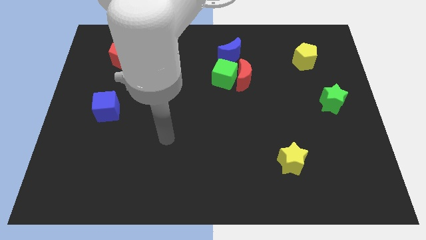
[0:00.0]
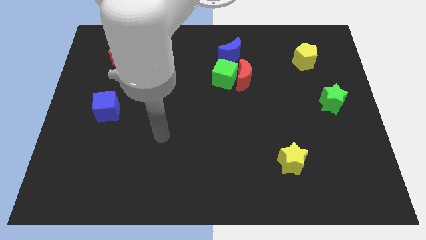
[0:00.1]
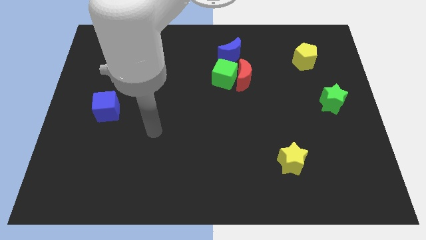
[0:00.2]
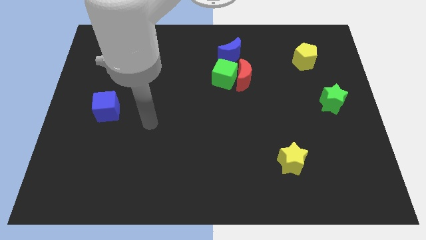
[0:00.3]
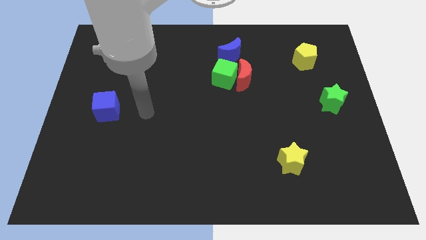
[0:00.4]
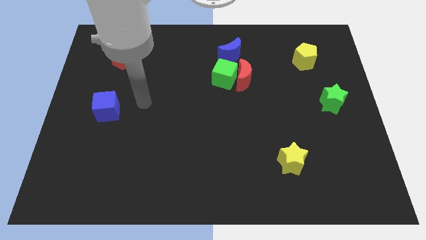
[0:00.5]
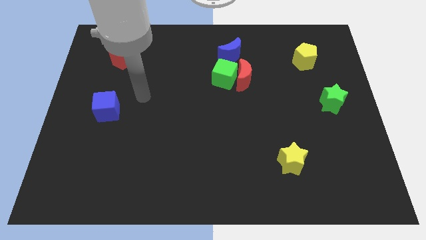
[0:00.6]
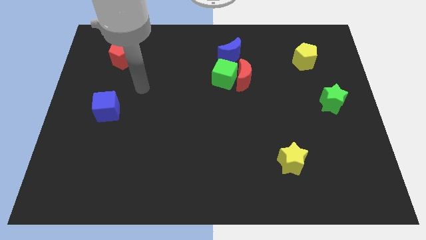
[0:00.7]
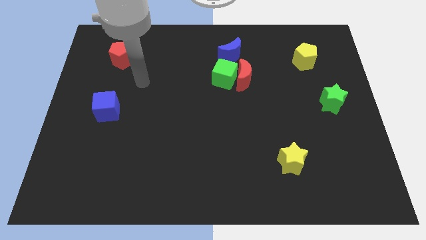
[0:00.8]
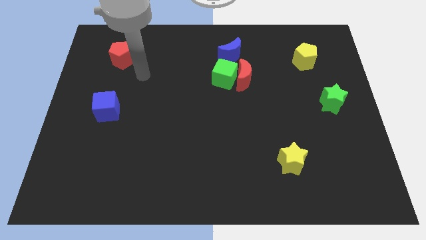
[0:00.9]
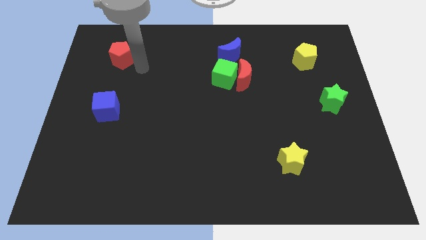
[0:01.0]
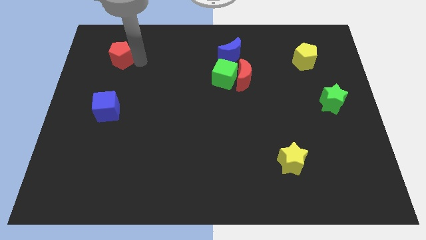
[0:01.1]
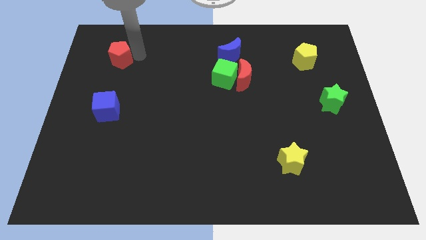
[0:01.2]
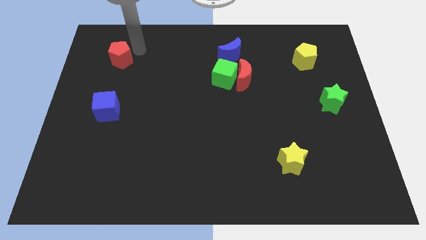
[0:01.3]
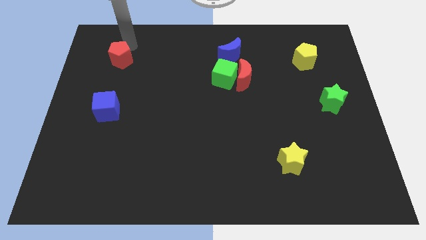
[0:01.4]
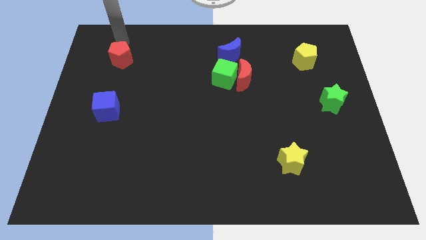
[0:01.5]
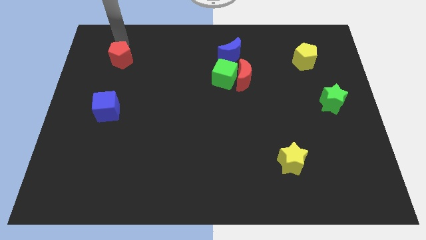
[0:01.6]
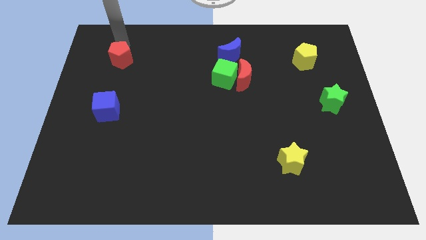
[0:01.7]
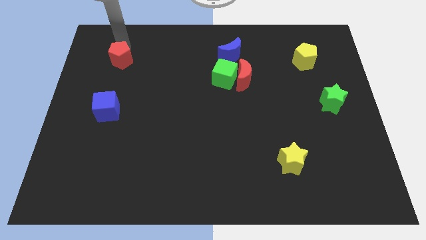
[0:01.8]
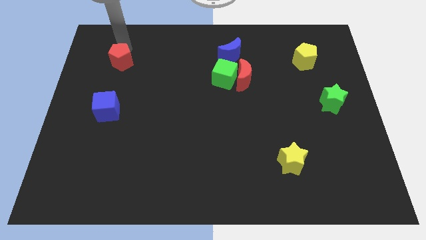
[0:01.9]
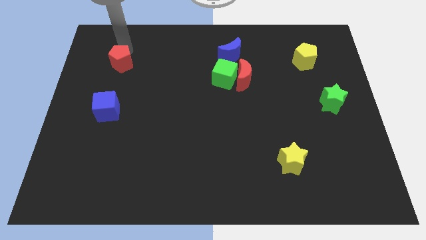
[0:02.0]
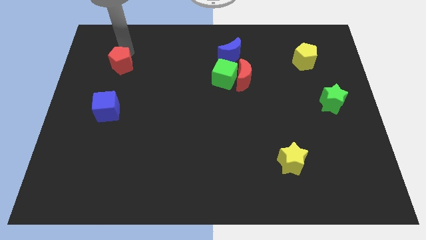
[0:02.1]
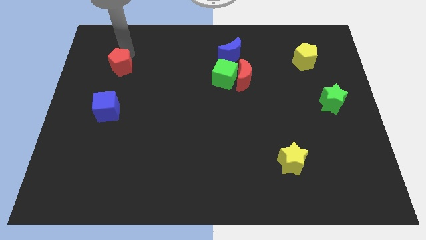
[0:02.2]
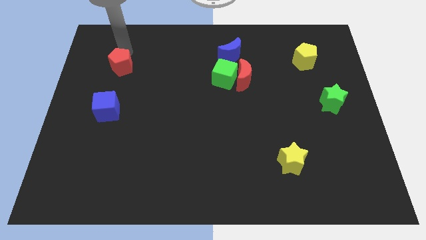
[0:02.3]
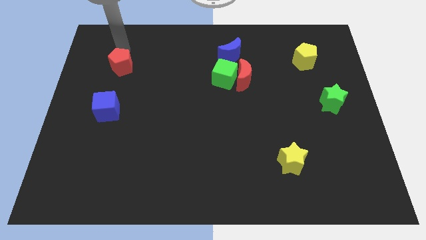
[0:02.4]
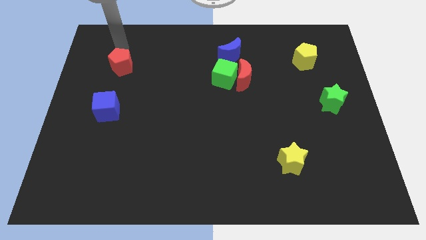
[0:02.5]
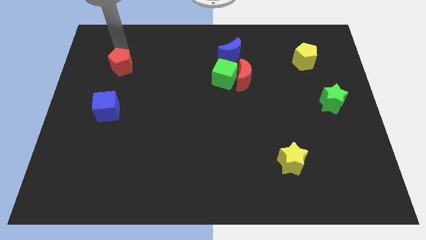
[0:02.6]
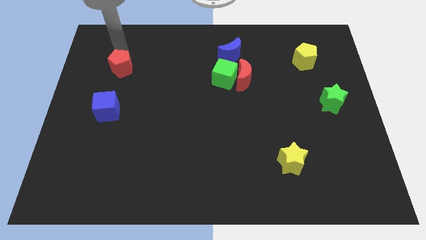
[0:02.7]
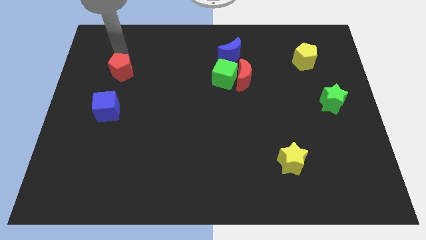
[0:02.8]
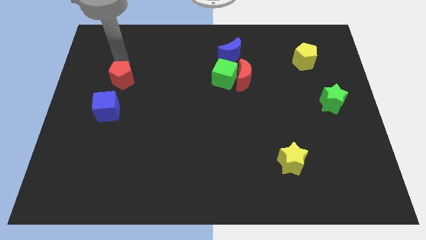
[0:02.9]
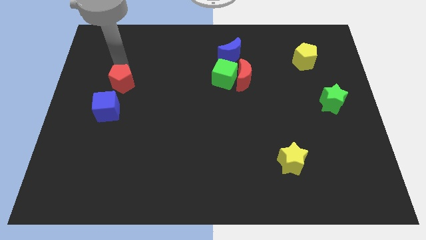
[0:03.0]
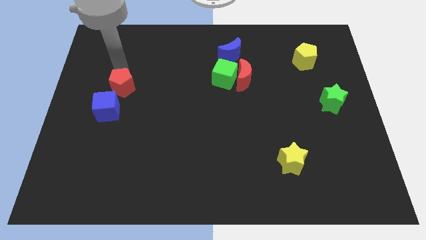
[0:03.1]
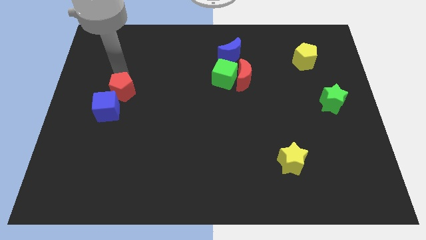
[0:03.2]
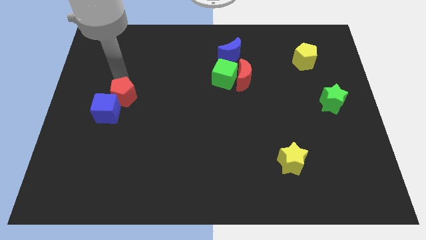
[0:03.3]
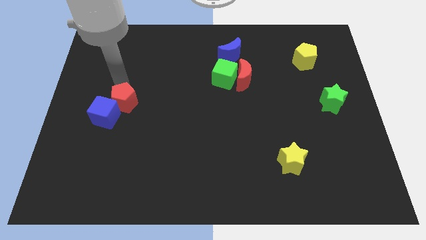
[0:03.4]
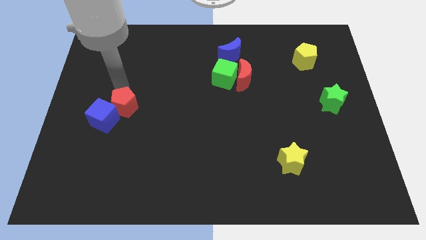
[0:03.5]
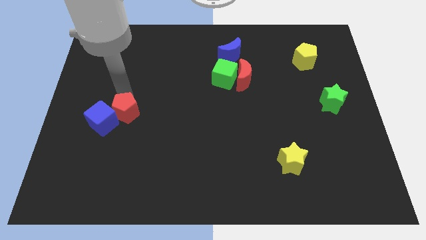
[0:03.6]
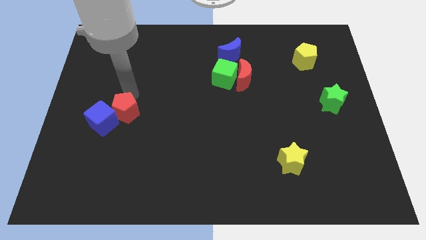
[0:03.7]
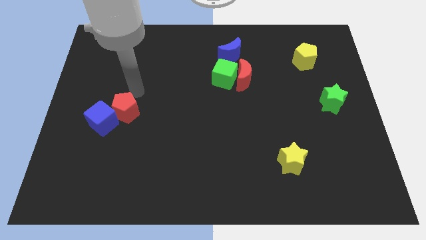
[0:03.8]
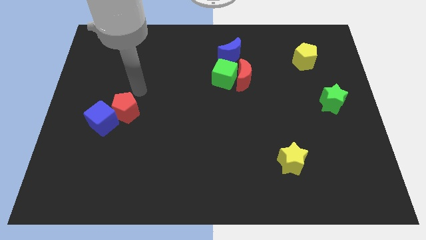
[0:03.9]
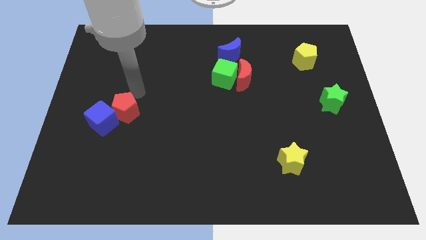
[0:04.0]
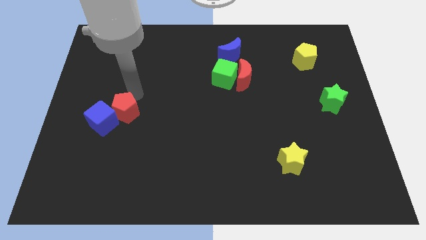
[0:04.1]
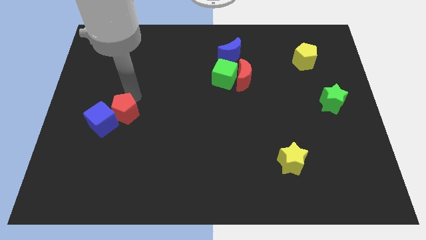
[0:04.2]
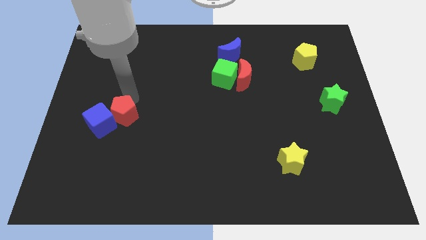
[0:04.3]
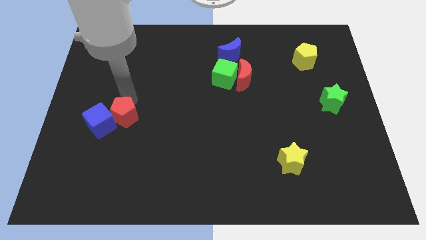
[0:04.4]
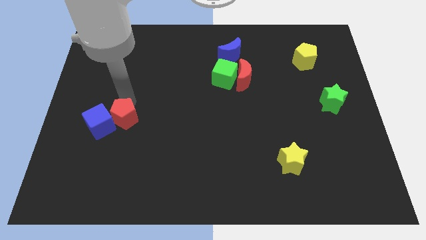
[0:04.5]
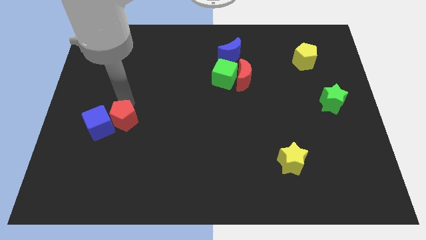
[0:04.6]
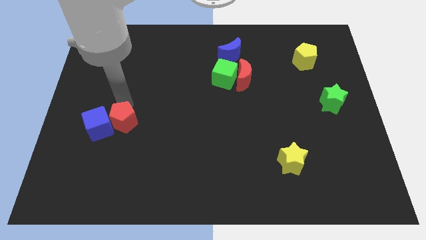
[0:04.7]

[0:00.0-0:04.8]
push the red pentagon downwards

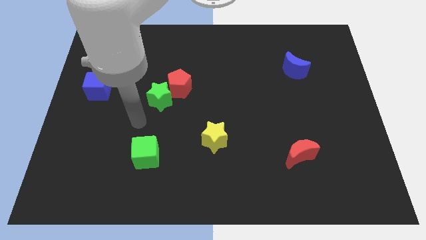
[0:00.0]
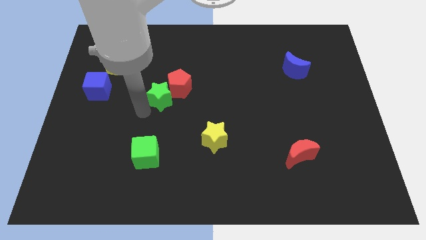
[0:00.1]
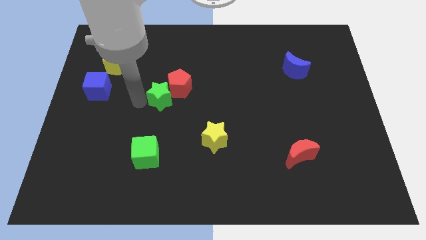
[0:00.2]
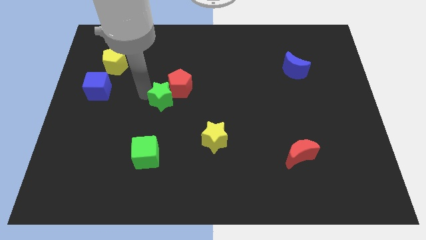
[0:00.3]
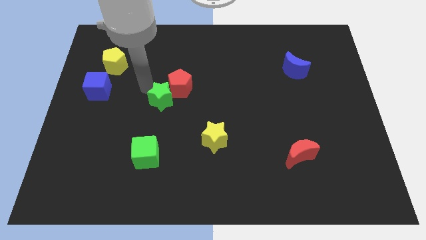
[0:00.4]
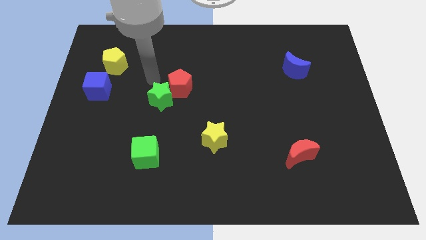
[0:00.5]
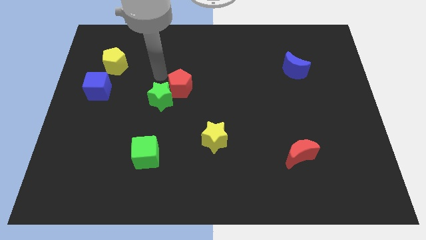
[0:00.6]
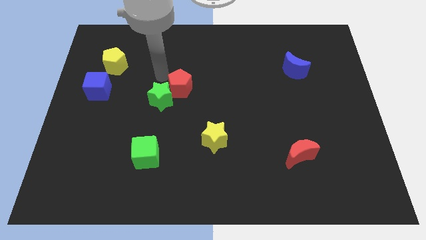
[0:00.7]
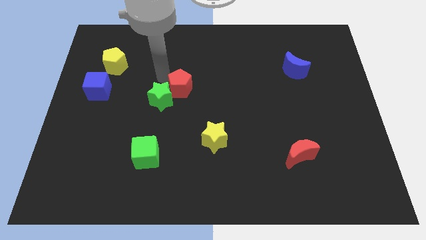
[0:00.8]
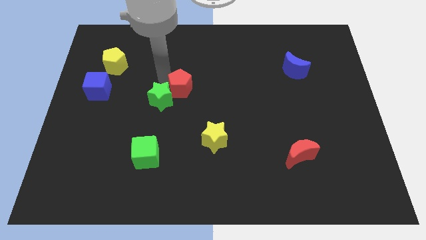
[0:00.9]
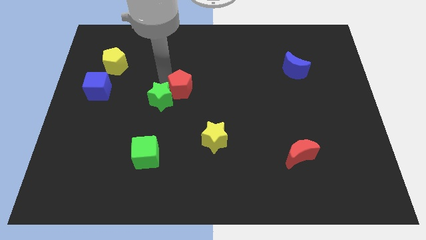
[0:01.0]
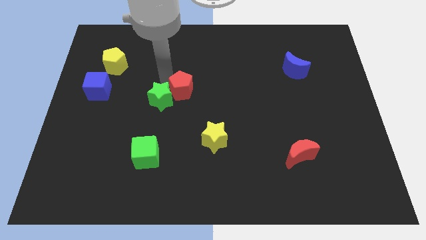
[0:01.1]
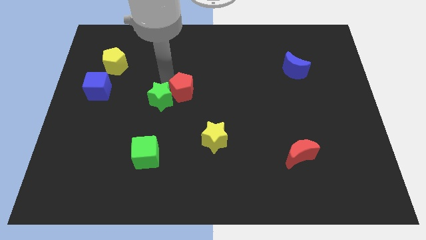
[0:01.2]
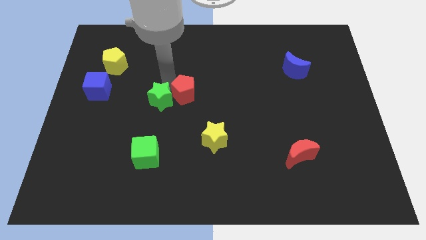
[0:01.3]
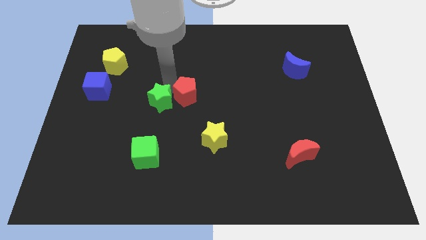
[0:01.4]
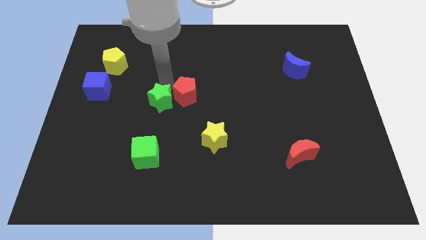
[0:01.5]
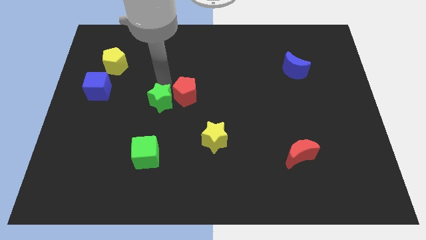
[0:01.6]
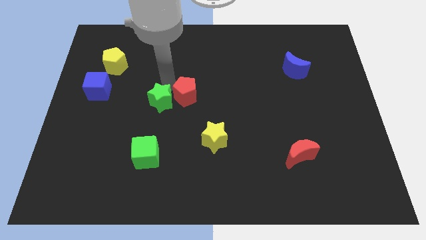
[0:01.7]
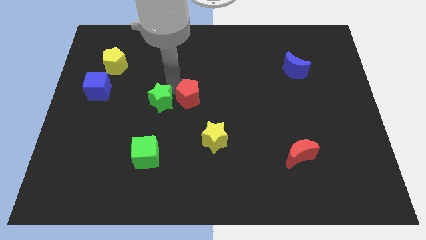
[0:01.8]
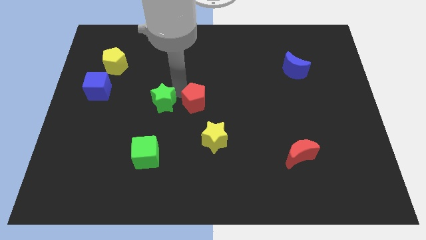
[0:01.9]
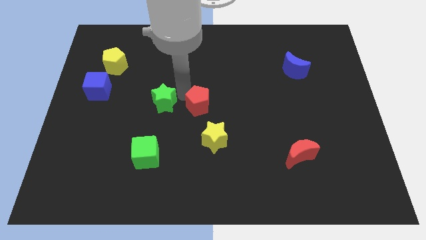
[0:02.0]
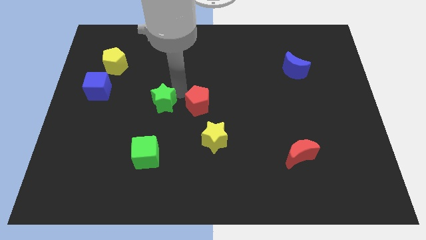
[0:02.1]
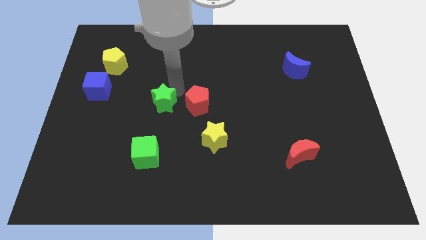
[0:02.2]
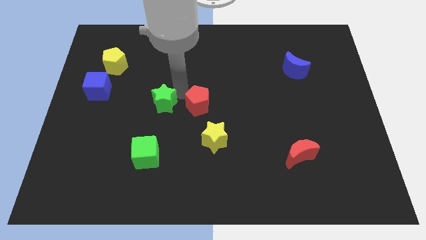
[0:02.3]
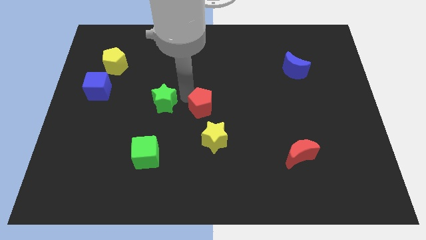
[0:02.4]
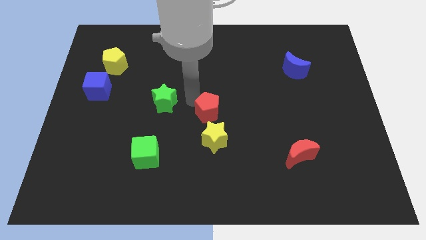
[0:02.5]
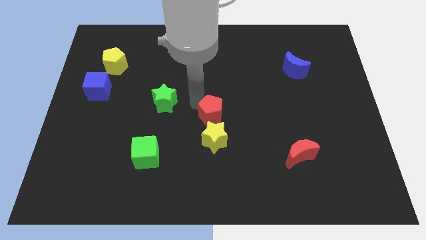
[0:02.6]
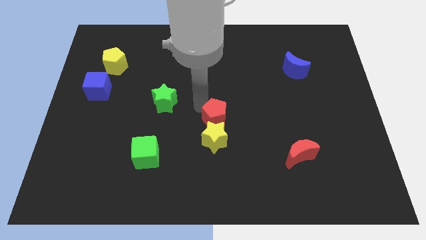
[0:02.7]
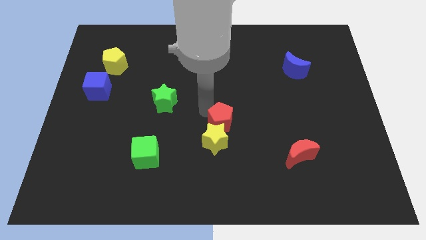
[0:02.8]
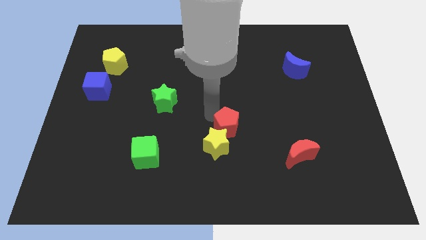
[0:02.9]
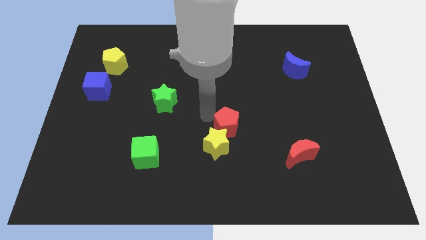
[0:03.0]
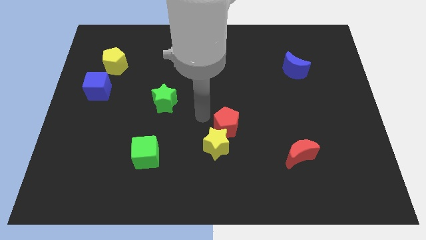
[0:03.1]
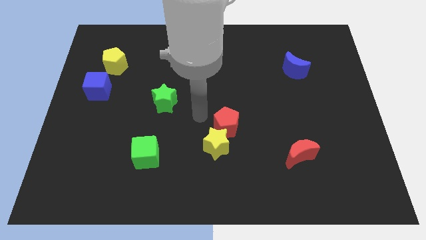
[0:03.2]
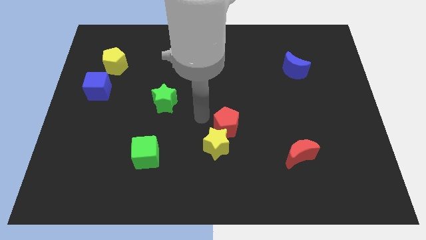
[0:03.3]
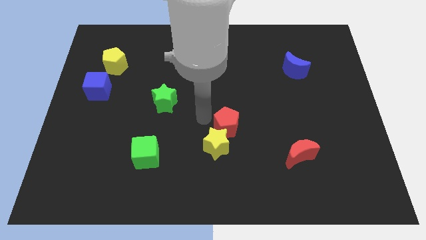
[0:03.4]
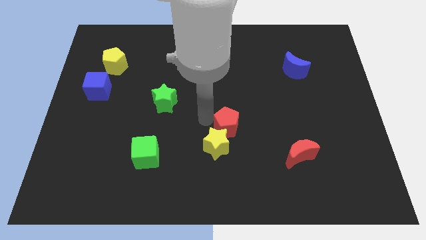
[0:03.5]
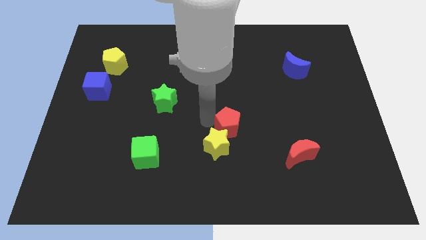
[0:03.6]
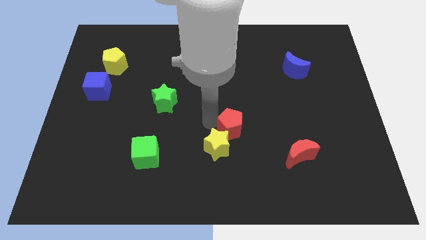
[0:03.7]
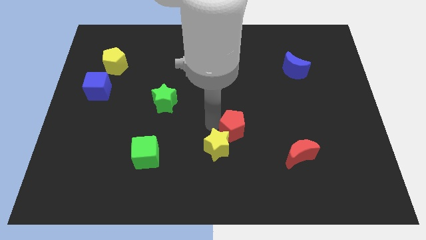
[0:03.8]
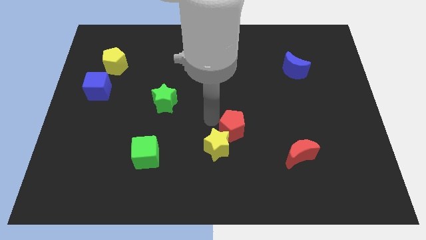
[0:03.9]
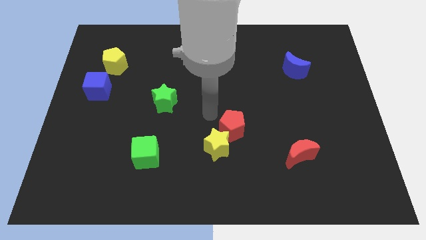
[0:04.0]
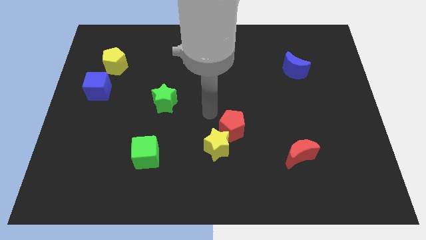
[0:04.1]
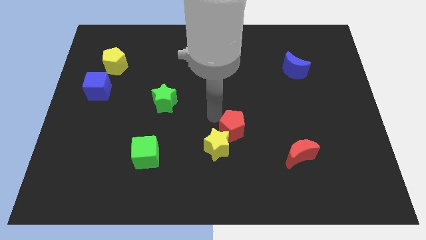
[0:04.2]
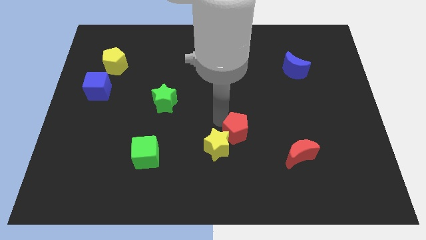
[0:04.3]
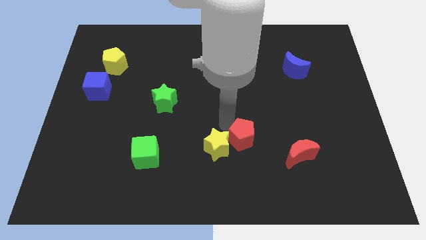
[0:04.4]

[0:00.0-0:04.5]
push the red pentagon diagonally down and right
